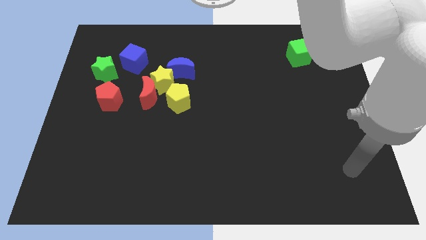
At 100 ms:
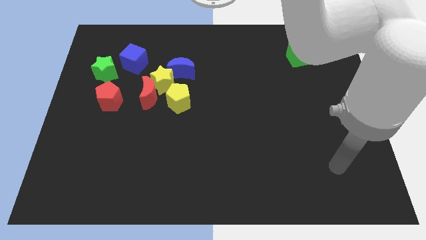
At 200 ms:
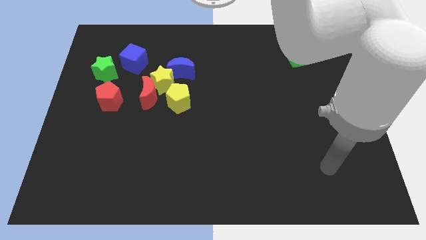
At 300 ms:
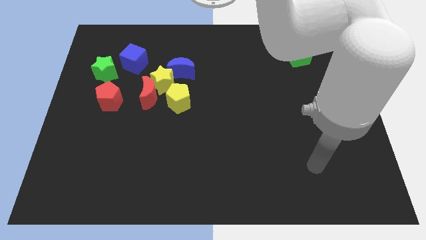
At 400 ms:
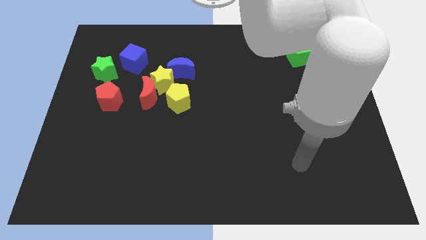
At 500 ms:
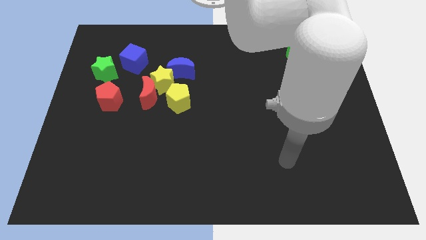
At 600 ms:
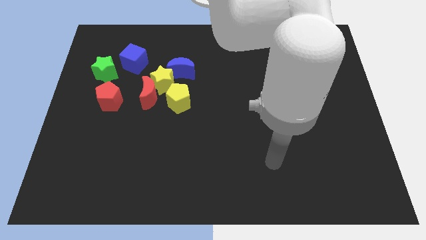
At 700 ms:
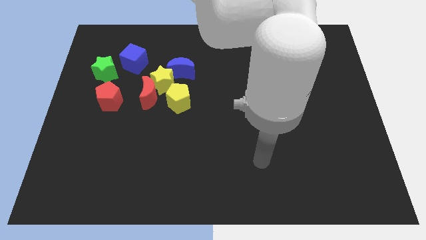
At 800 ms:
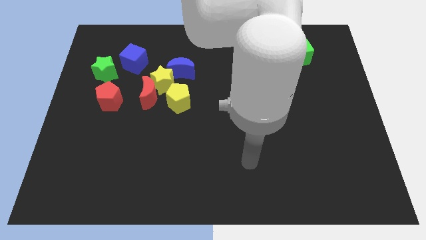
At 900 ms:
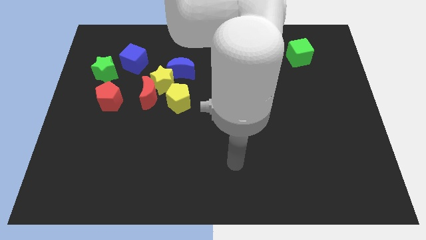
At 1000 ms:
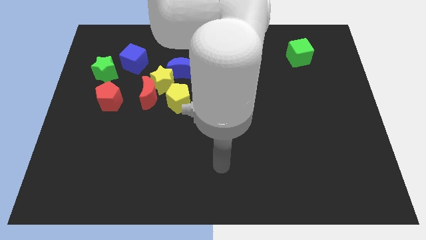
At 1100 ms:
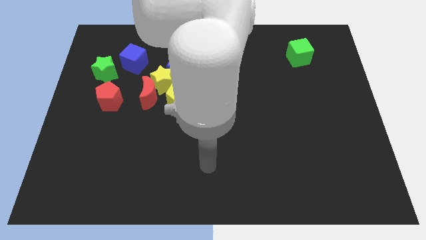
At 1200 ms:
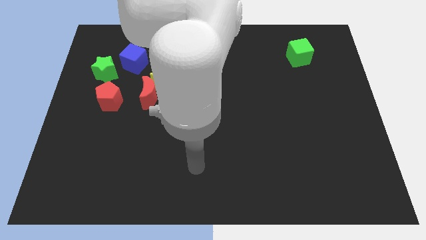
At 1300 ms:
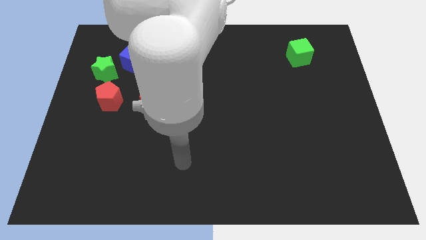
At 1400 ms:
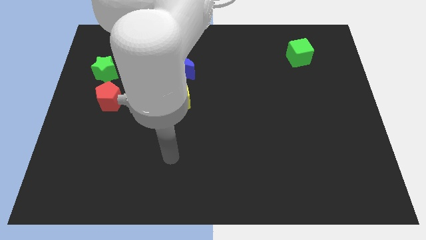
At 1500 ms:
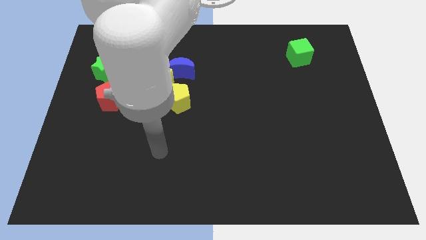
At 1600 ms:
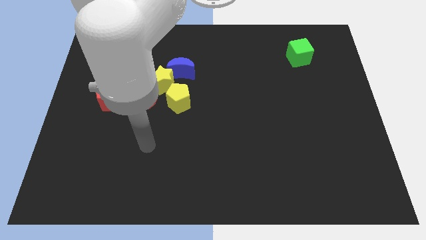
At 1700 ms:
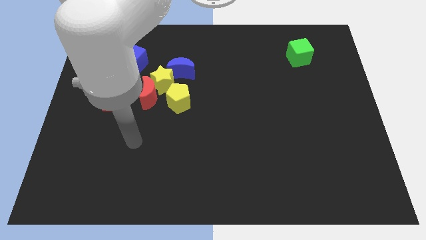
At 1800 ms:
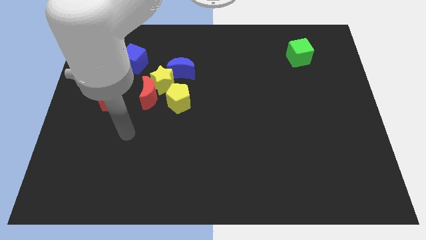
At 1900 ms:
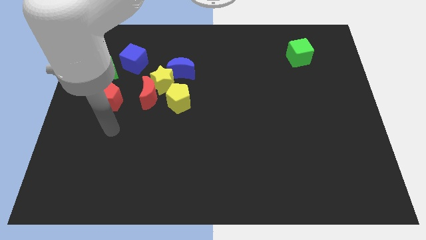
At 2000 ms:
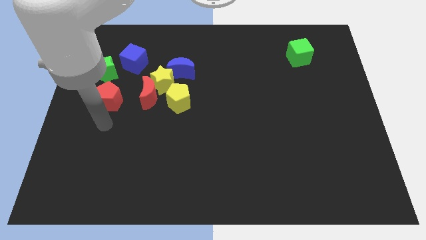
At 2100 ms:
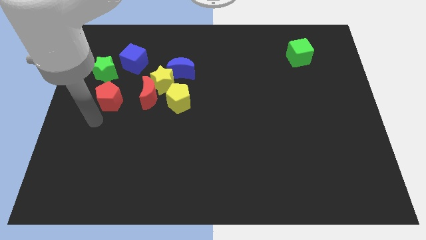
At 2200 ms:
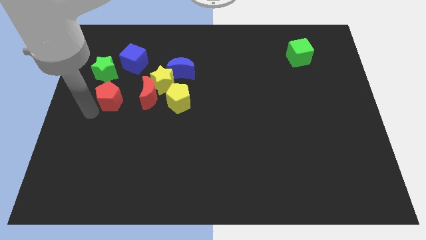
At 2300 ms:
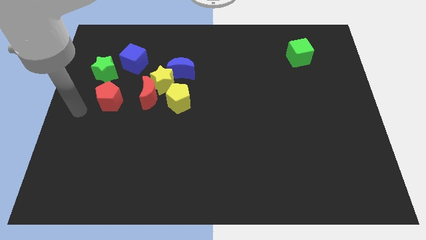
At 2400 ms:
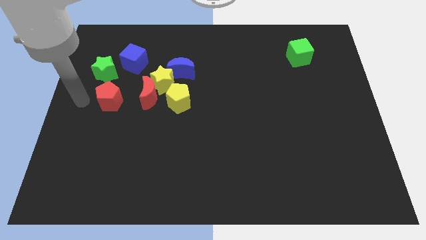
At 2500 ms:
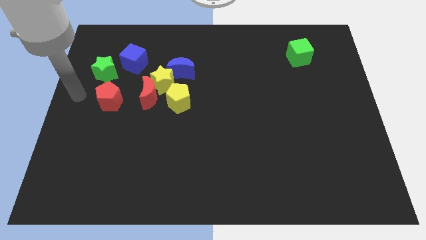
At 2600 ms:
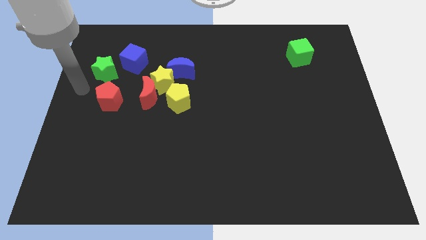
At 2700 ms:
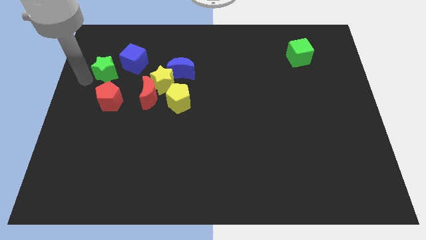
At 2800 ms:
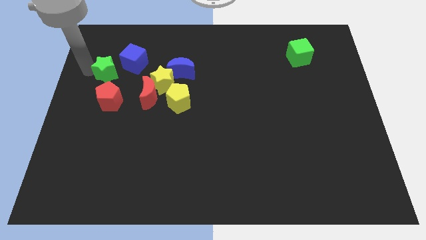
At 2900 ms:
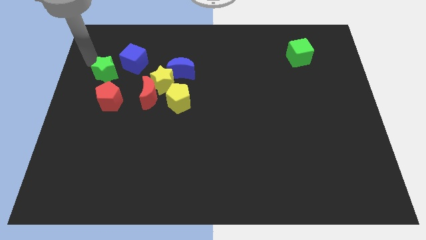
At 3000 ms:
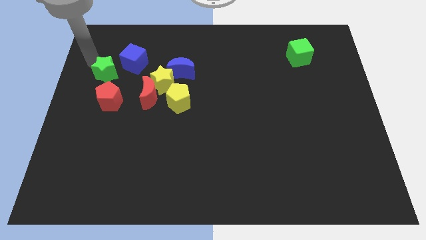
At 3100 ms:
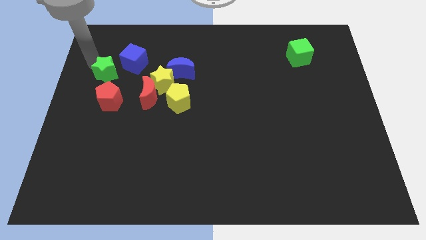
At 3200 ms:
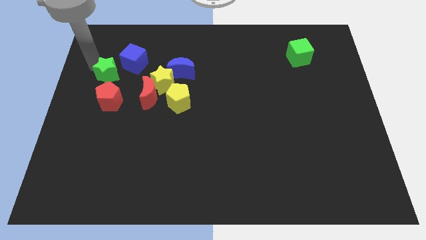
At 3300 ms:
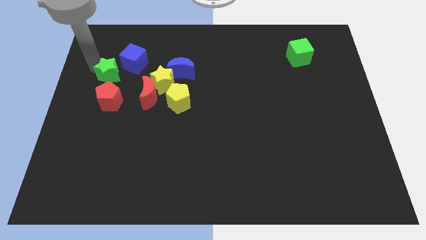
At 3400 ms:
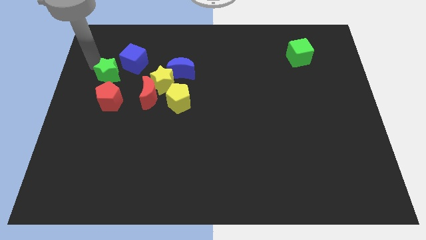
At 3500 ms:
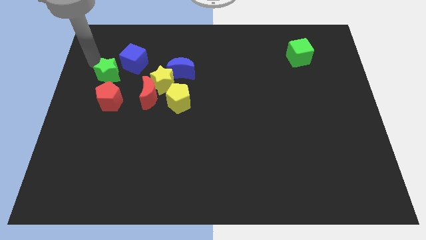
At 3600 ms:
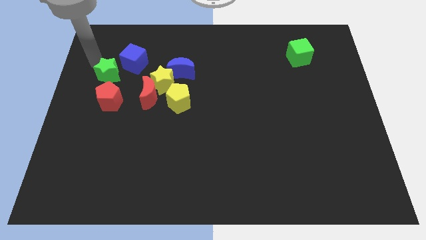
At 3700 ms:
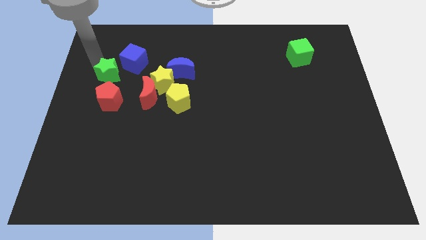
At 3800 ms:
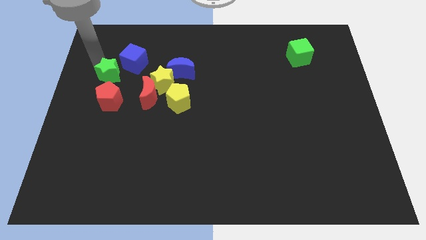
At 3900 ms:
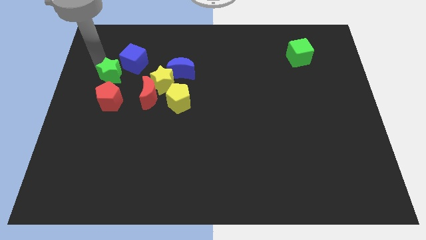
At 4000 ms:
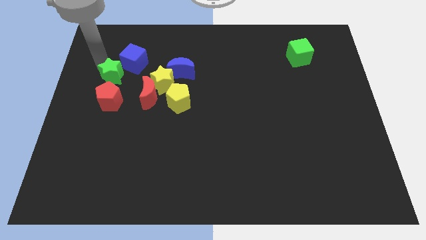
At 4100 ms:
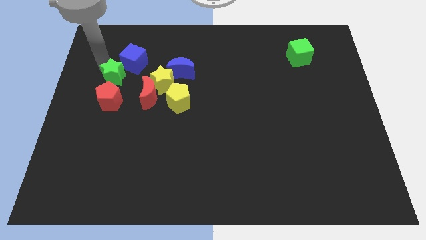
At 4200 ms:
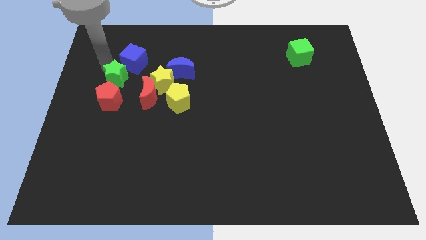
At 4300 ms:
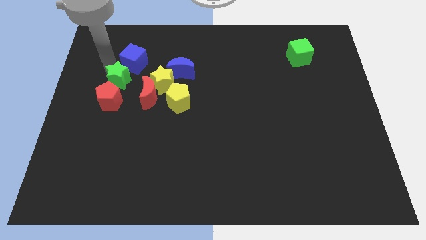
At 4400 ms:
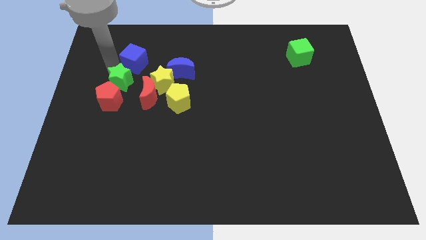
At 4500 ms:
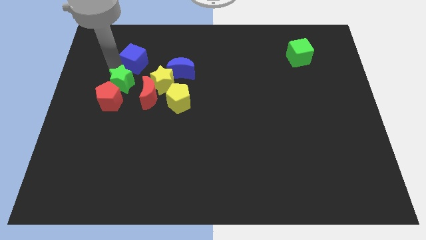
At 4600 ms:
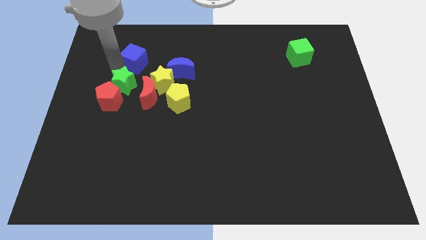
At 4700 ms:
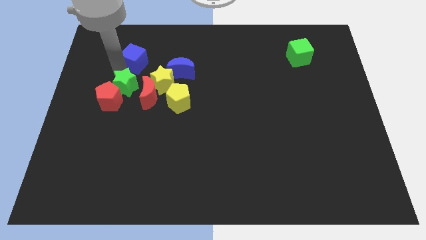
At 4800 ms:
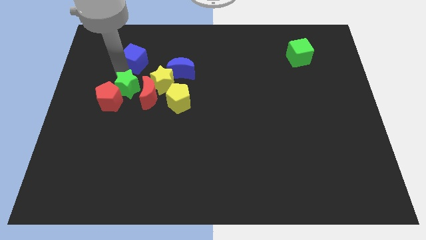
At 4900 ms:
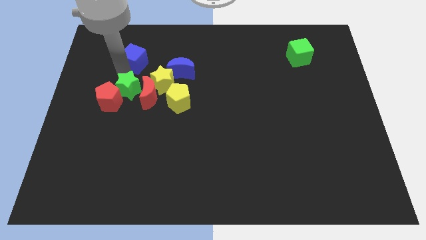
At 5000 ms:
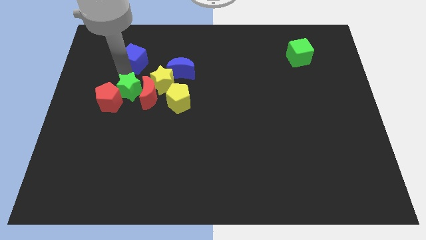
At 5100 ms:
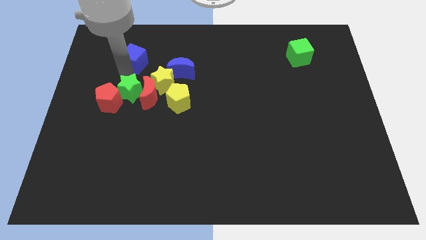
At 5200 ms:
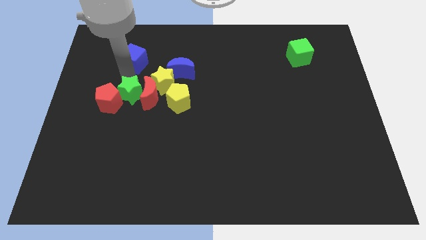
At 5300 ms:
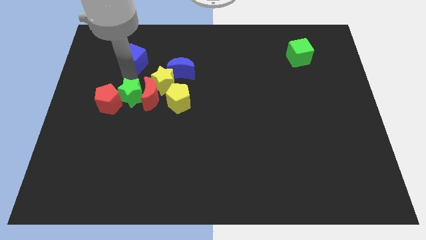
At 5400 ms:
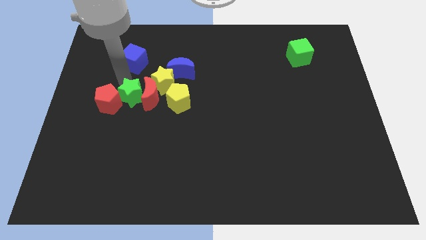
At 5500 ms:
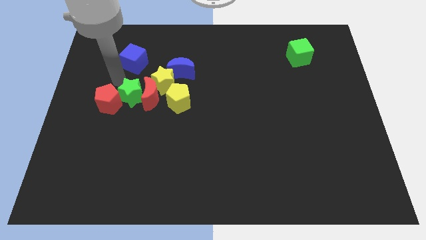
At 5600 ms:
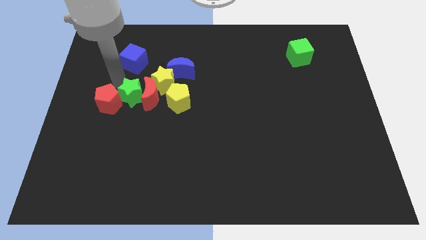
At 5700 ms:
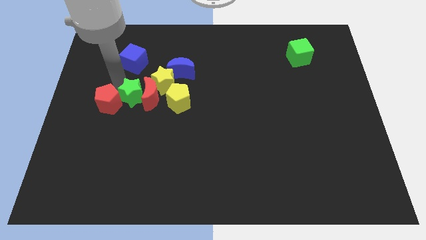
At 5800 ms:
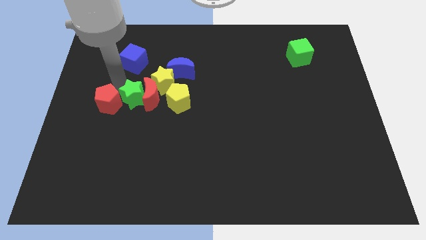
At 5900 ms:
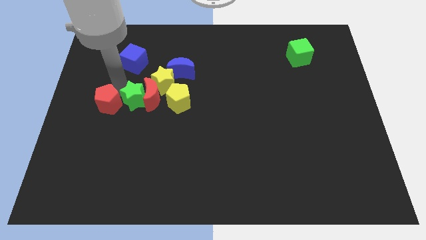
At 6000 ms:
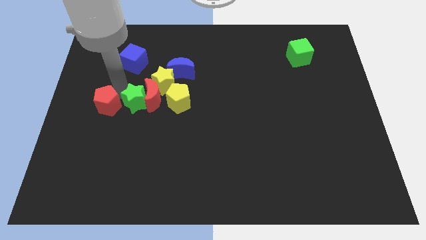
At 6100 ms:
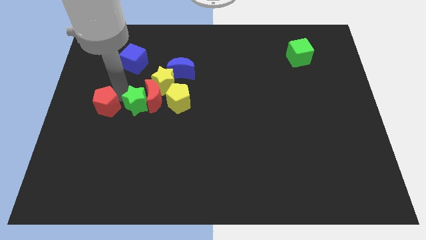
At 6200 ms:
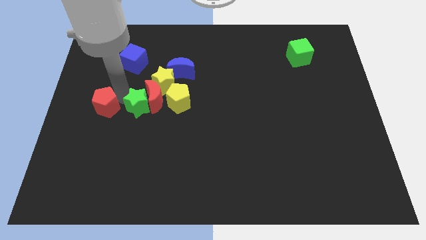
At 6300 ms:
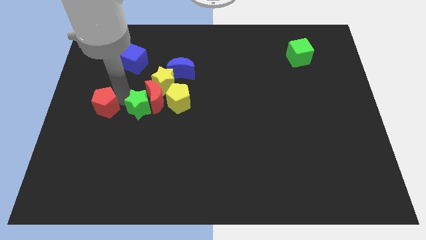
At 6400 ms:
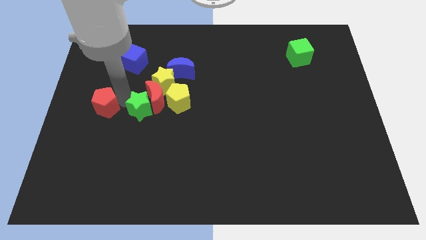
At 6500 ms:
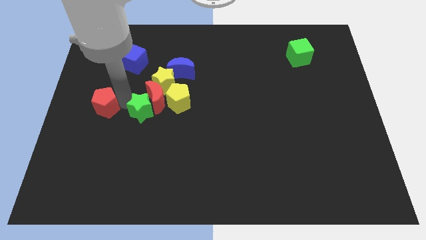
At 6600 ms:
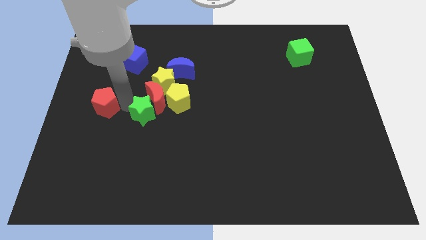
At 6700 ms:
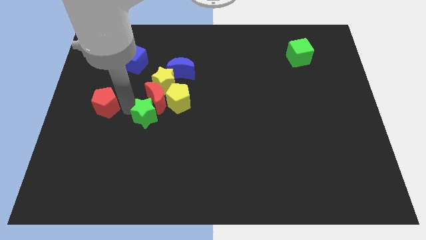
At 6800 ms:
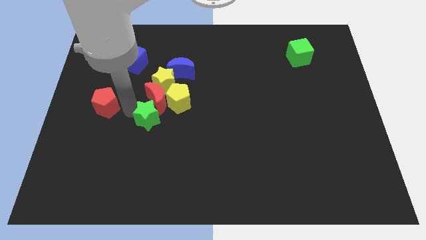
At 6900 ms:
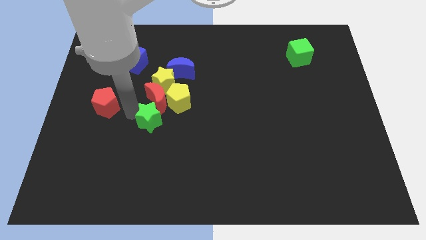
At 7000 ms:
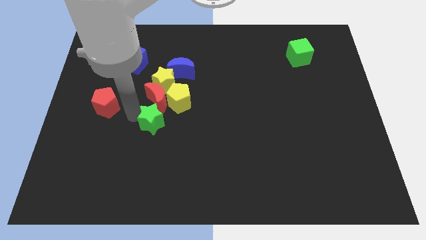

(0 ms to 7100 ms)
slide the green star downwards and then to the right

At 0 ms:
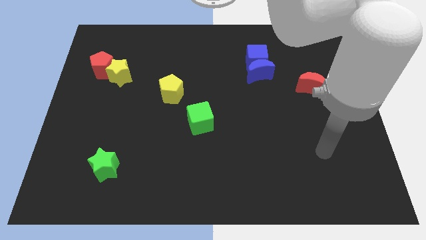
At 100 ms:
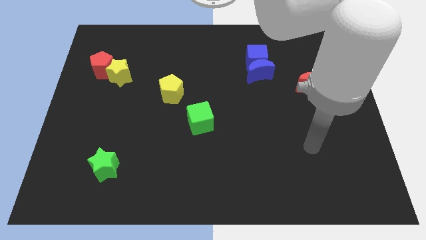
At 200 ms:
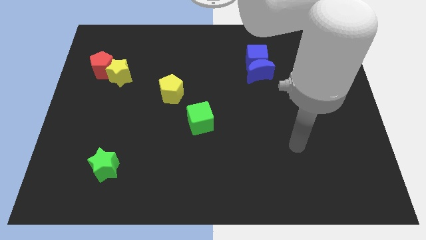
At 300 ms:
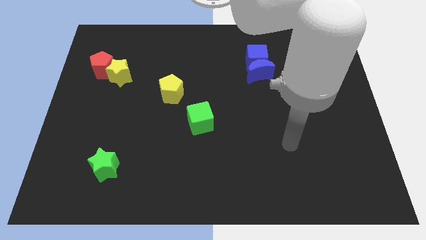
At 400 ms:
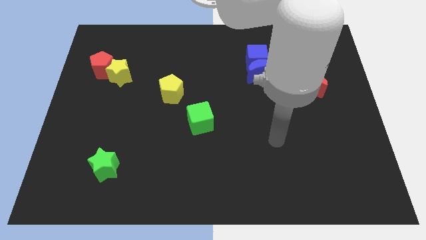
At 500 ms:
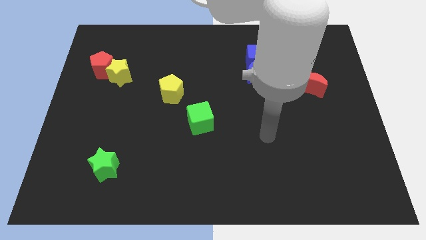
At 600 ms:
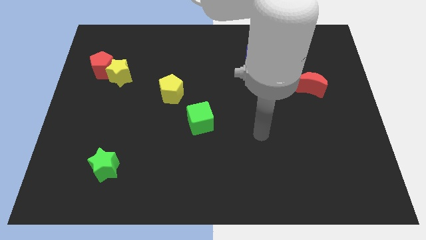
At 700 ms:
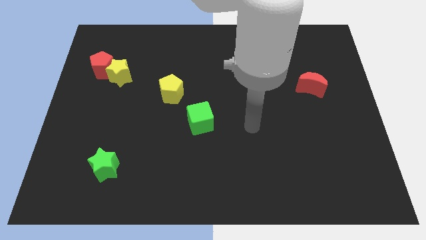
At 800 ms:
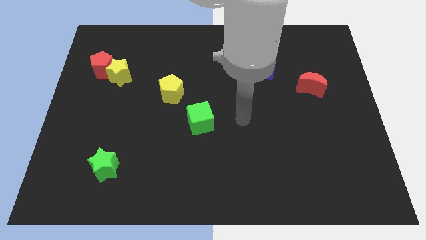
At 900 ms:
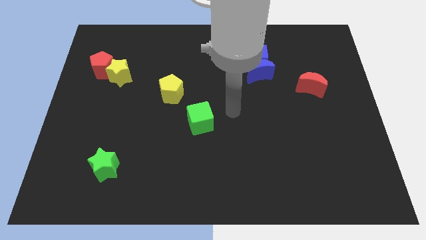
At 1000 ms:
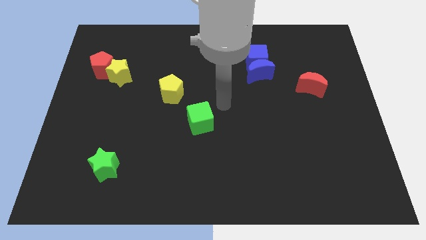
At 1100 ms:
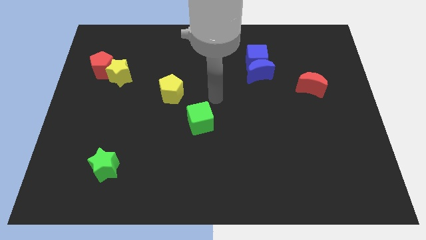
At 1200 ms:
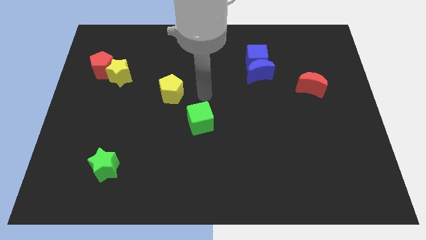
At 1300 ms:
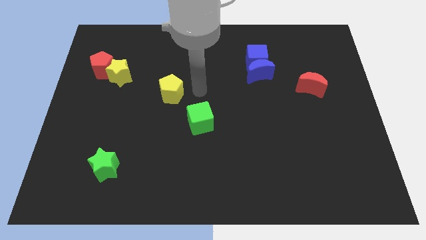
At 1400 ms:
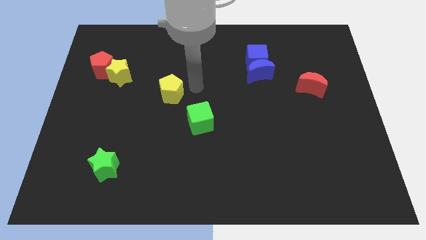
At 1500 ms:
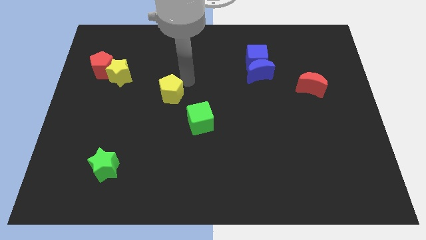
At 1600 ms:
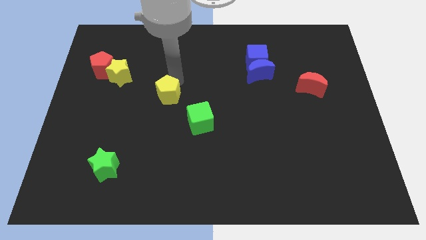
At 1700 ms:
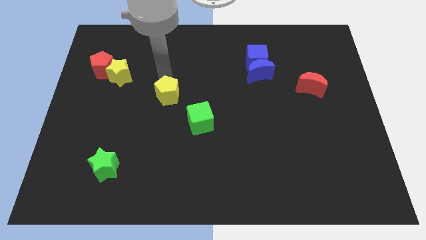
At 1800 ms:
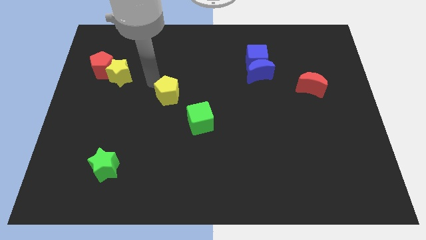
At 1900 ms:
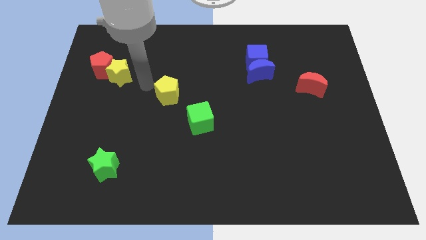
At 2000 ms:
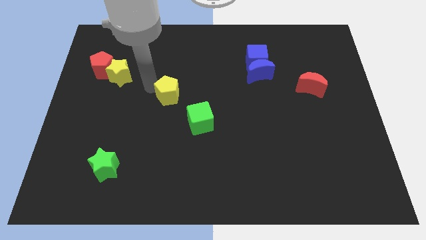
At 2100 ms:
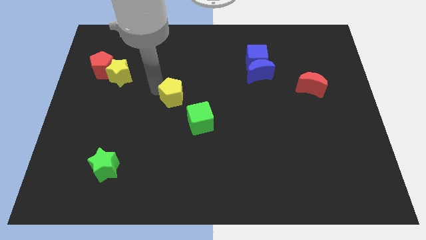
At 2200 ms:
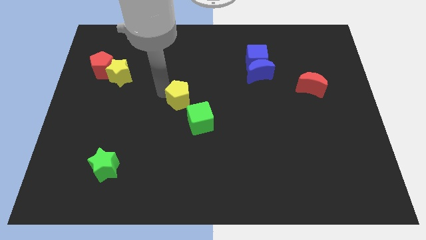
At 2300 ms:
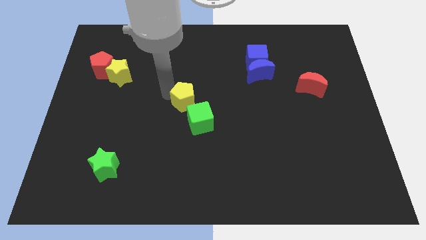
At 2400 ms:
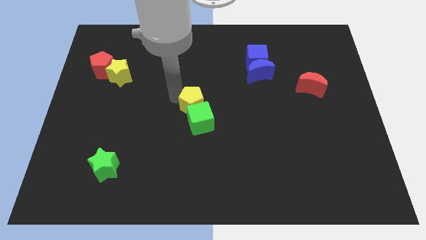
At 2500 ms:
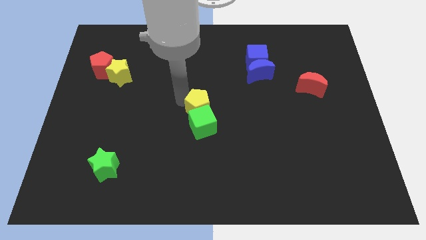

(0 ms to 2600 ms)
push the yellow pentagon slightly downwards and then right
